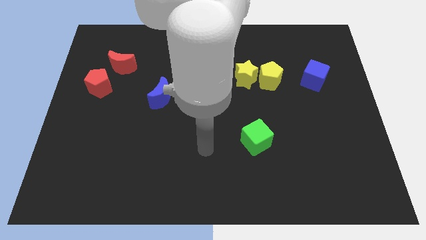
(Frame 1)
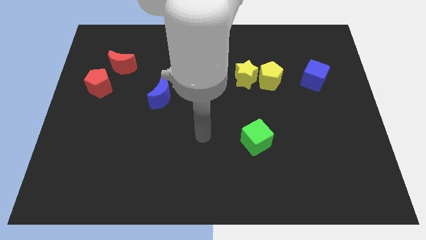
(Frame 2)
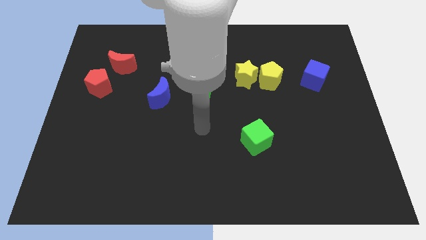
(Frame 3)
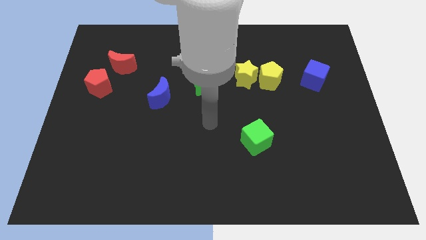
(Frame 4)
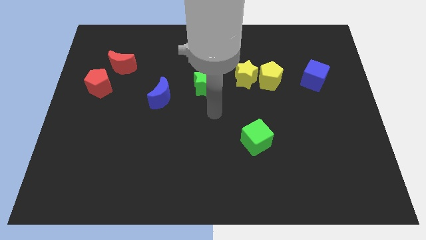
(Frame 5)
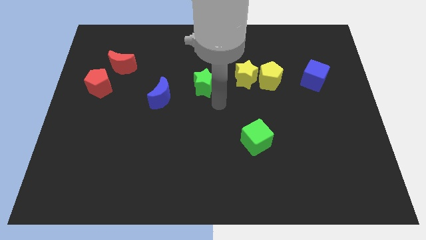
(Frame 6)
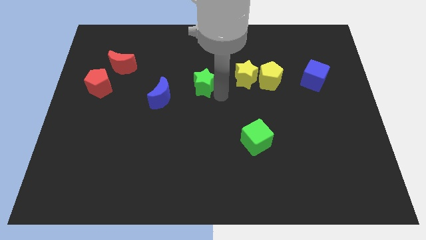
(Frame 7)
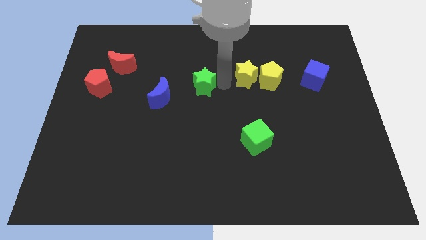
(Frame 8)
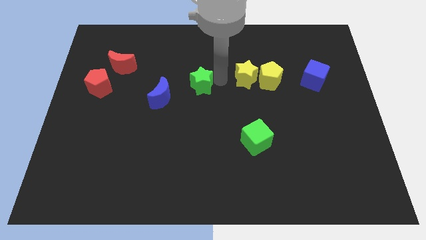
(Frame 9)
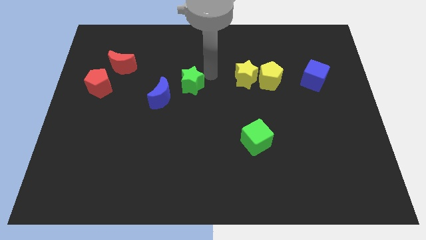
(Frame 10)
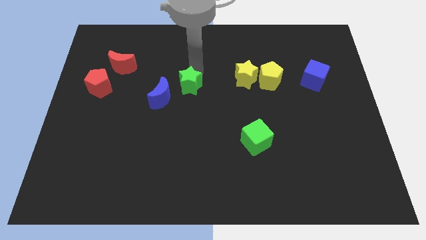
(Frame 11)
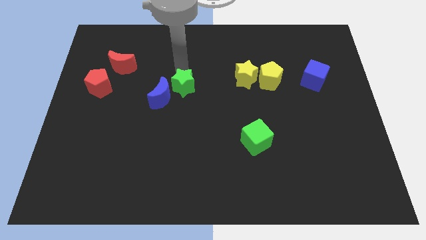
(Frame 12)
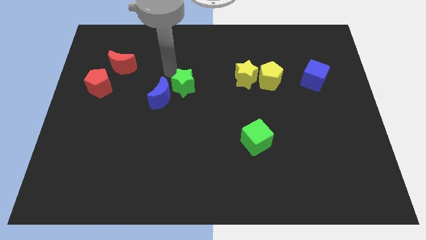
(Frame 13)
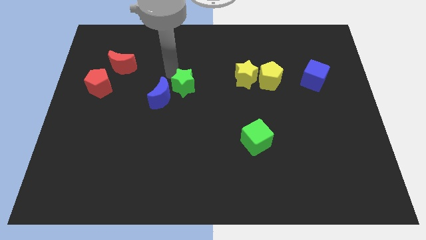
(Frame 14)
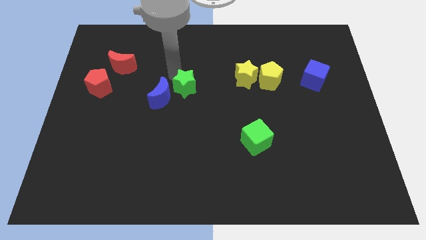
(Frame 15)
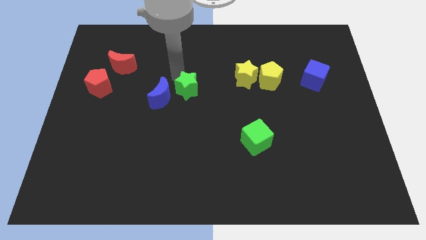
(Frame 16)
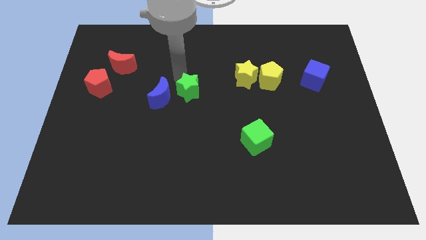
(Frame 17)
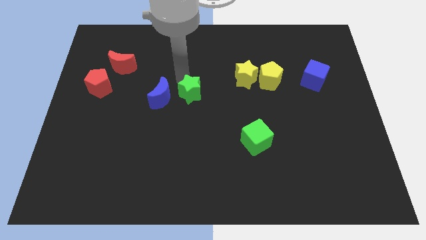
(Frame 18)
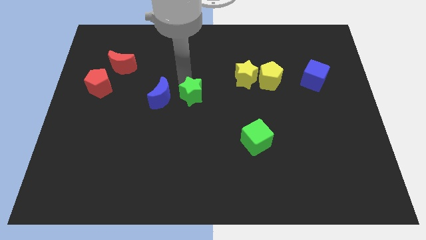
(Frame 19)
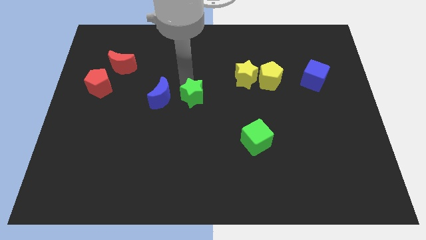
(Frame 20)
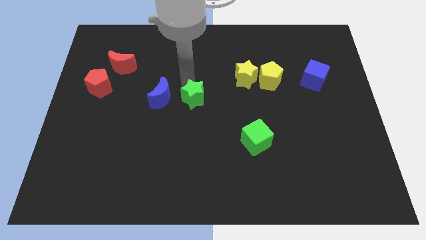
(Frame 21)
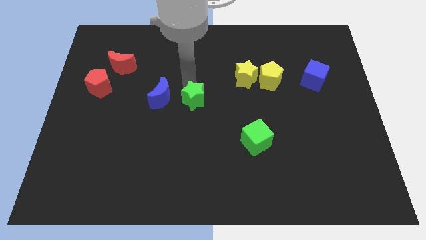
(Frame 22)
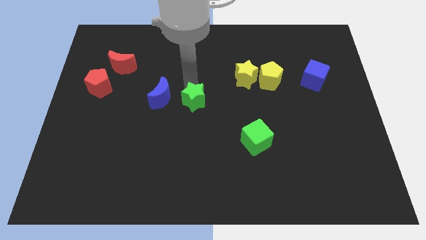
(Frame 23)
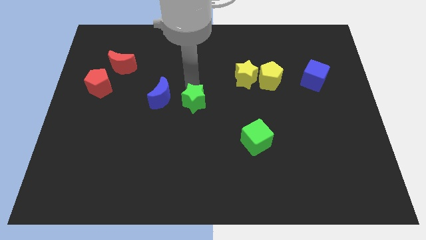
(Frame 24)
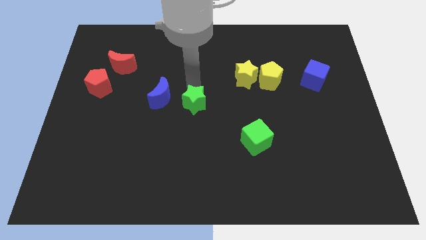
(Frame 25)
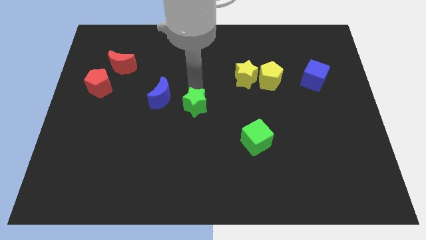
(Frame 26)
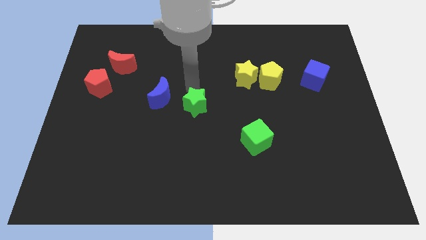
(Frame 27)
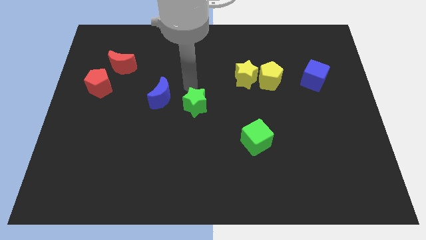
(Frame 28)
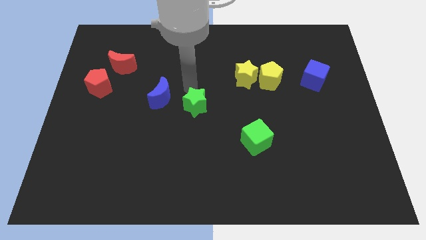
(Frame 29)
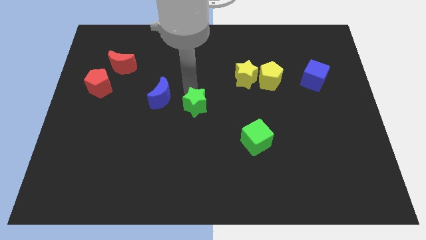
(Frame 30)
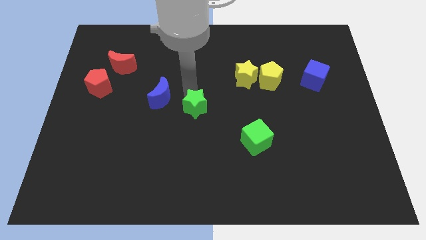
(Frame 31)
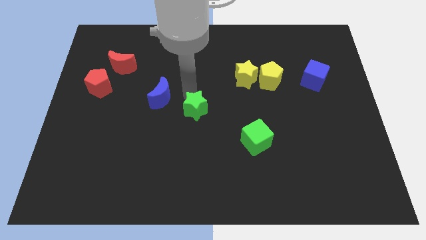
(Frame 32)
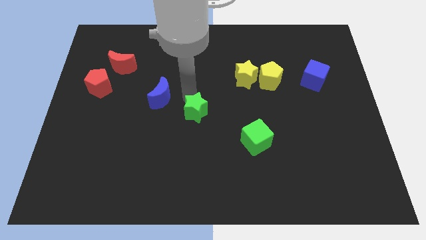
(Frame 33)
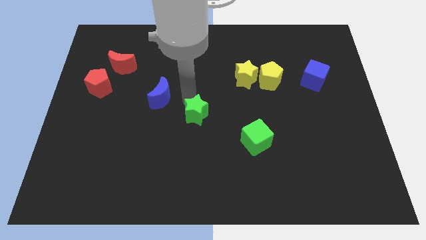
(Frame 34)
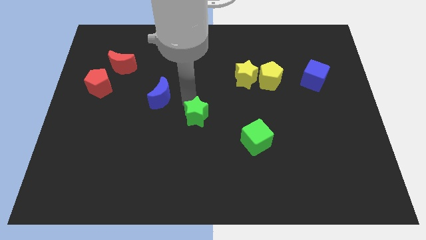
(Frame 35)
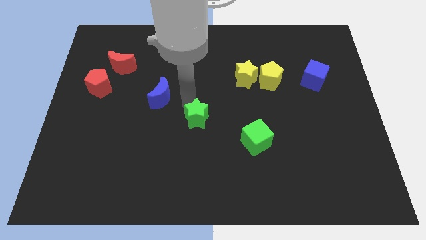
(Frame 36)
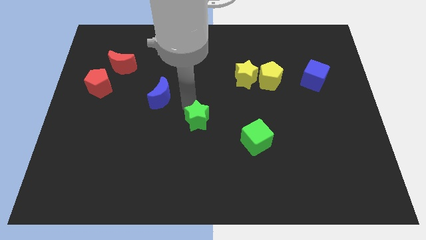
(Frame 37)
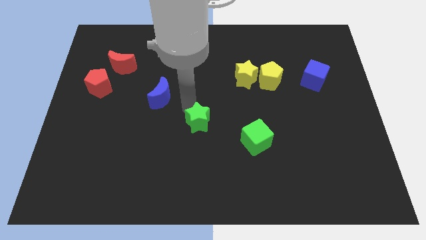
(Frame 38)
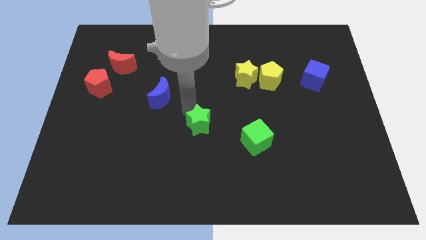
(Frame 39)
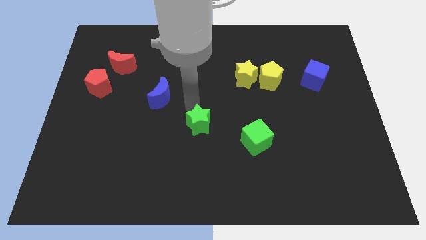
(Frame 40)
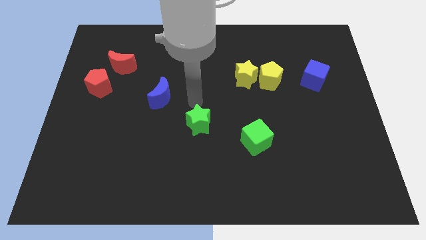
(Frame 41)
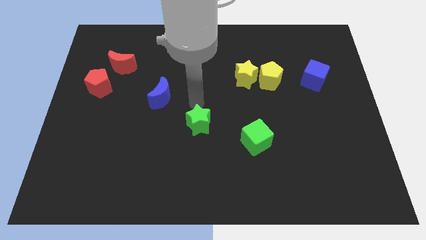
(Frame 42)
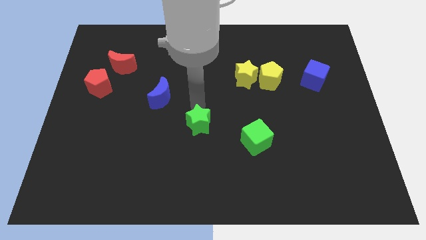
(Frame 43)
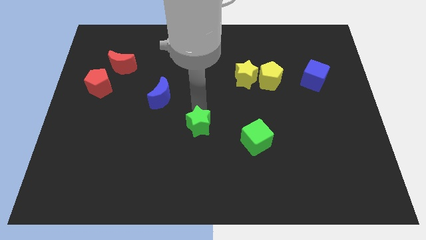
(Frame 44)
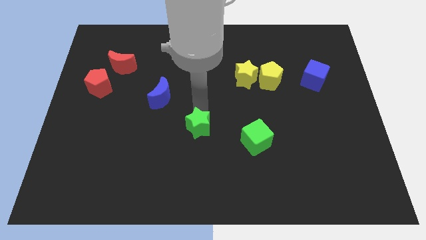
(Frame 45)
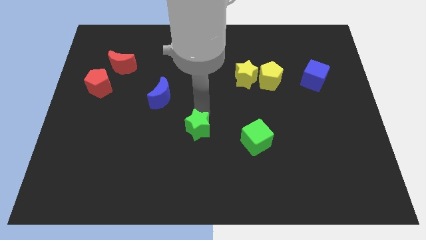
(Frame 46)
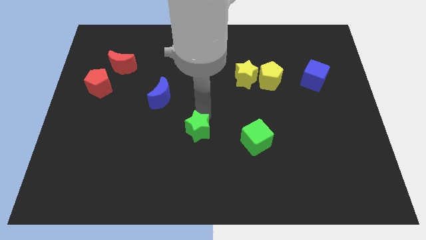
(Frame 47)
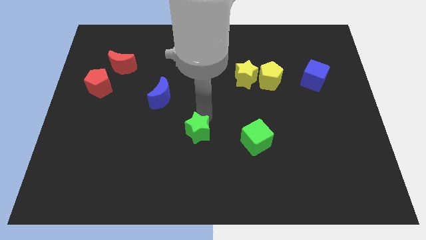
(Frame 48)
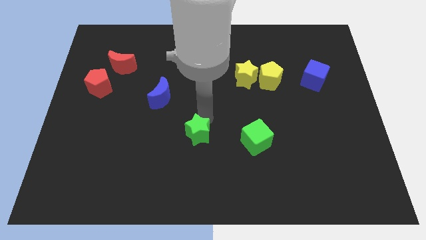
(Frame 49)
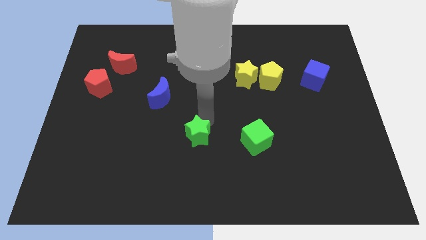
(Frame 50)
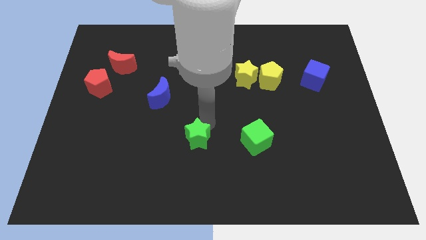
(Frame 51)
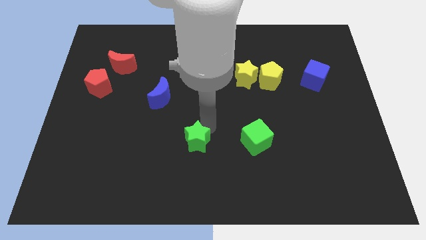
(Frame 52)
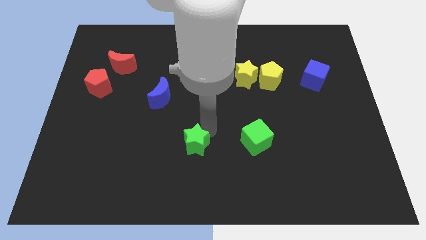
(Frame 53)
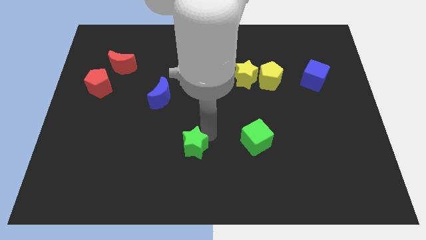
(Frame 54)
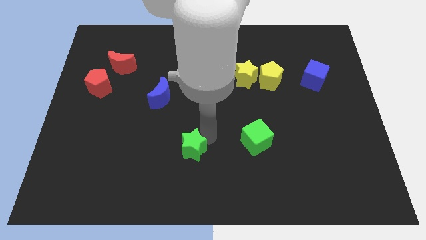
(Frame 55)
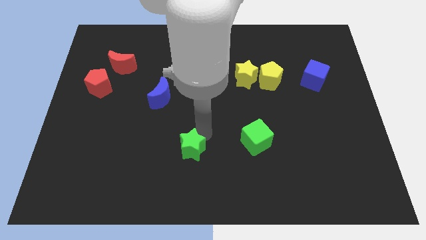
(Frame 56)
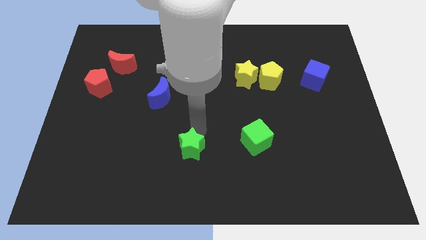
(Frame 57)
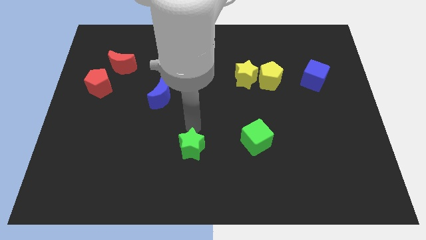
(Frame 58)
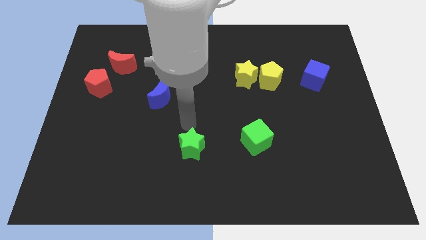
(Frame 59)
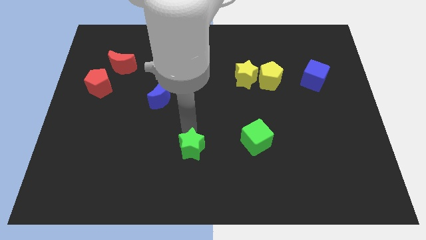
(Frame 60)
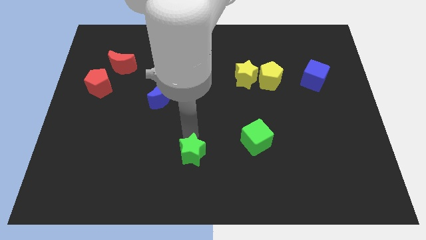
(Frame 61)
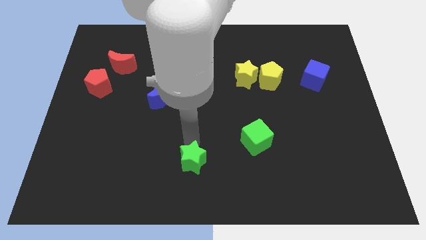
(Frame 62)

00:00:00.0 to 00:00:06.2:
slide the green star to the bottom side

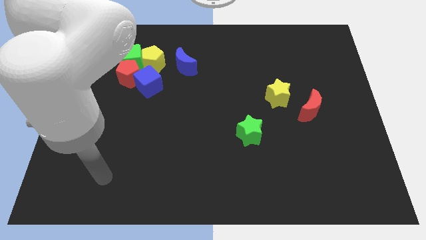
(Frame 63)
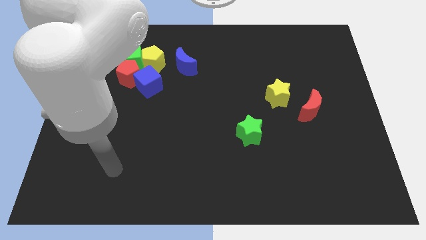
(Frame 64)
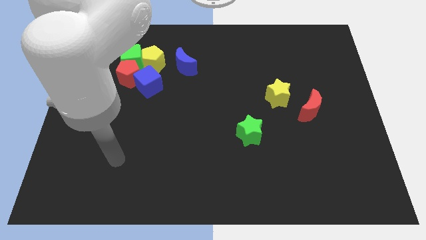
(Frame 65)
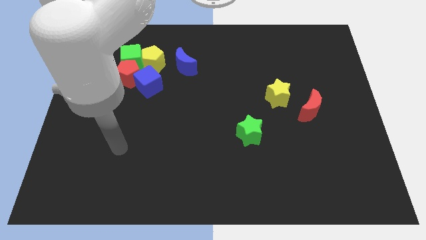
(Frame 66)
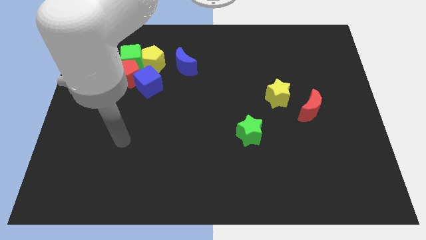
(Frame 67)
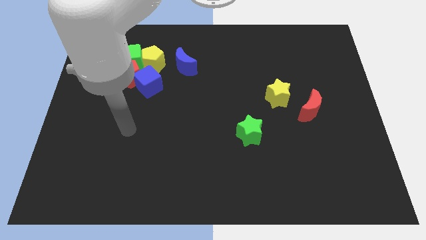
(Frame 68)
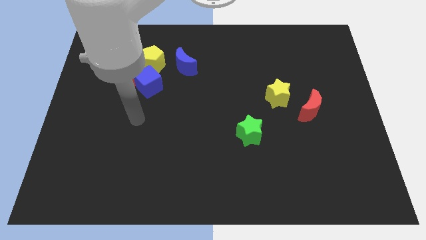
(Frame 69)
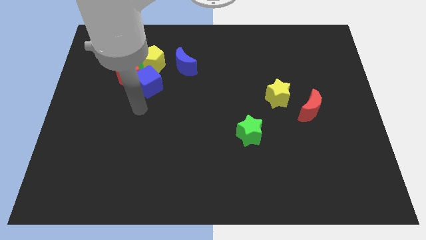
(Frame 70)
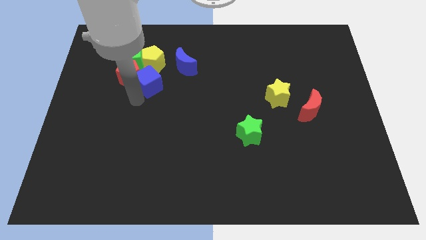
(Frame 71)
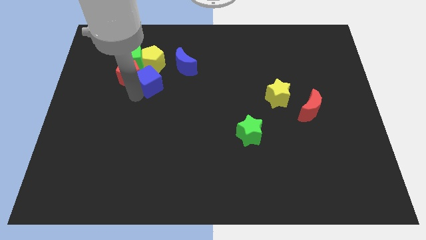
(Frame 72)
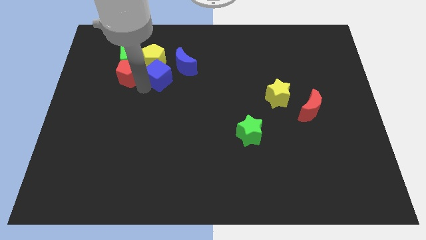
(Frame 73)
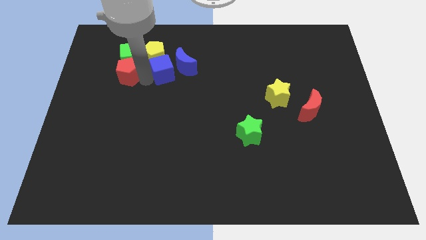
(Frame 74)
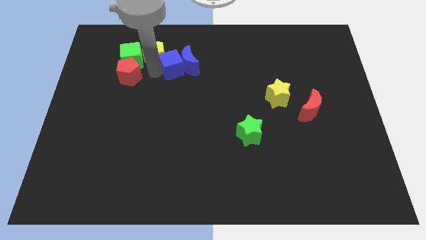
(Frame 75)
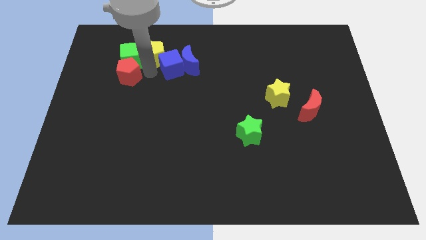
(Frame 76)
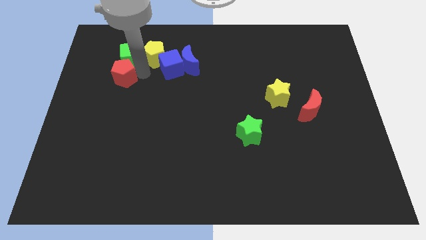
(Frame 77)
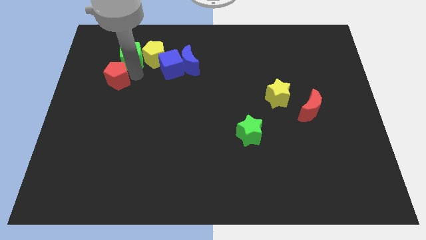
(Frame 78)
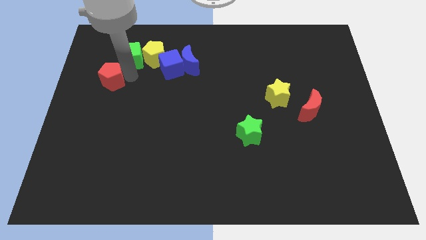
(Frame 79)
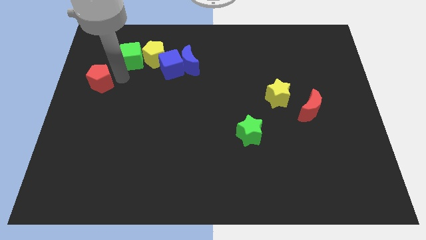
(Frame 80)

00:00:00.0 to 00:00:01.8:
slide the red pentagon to the left side of the board
